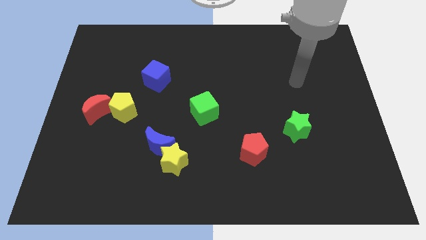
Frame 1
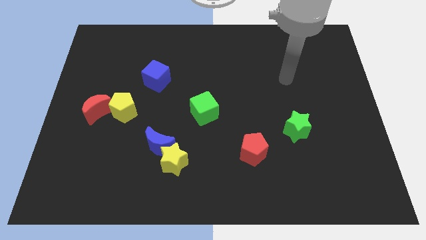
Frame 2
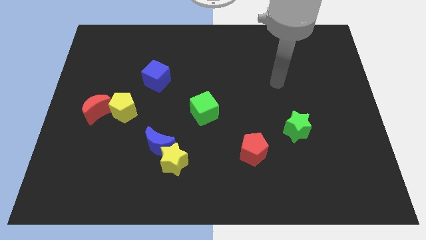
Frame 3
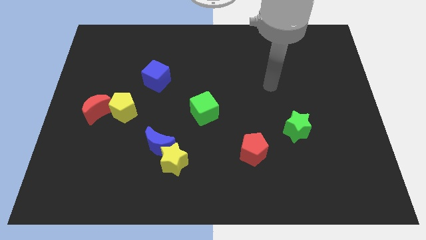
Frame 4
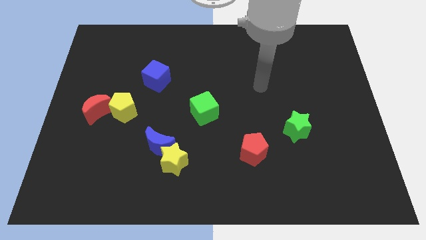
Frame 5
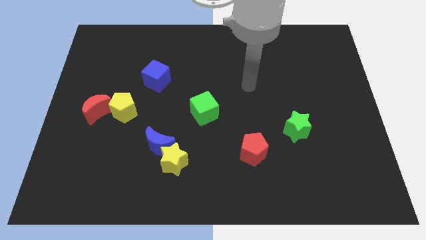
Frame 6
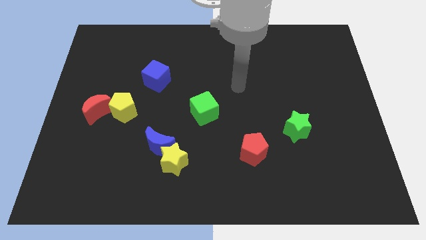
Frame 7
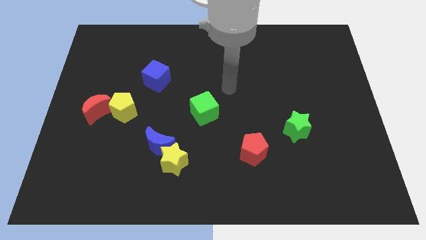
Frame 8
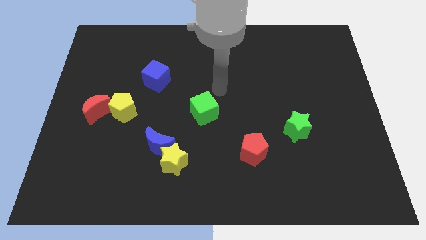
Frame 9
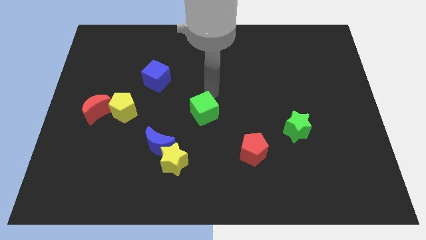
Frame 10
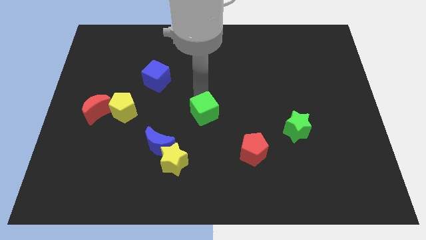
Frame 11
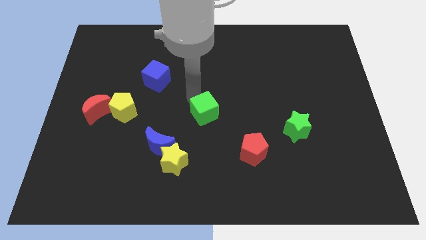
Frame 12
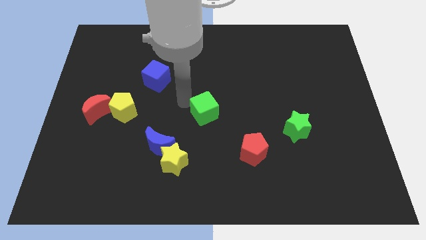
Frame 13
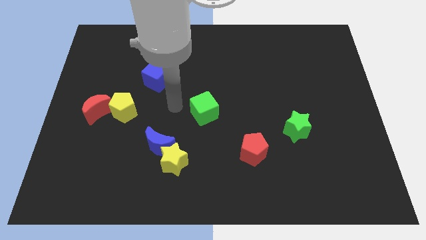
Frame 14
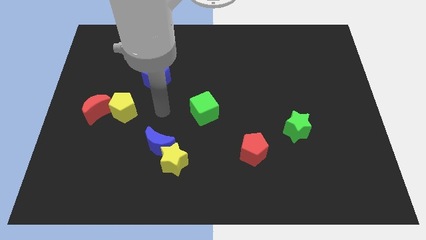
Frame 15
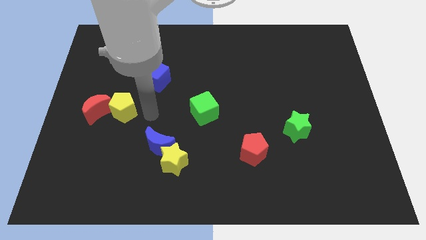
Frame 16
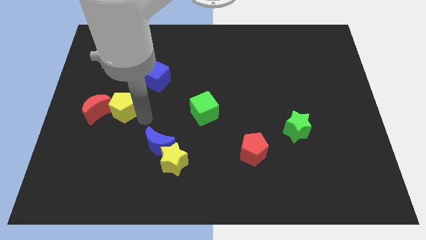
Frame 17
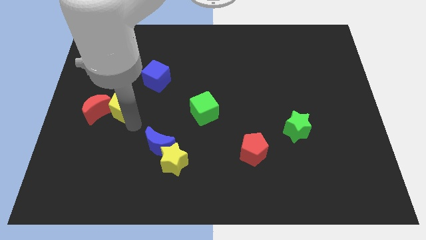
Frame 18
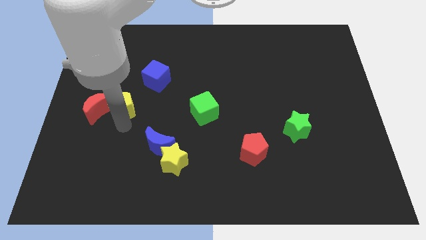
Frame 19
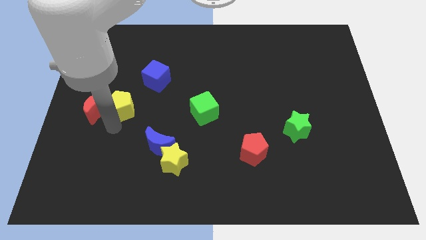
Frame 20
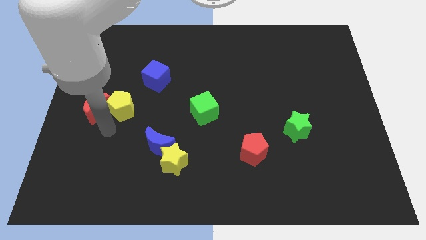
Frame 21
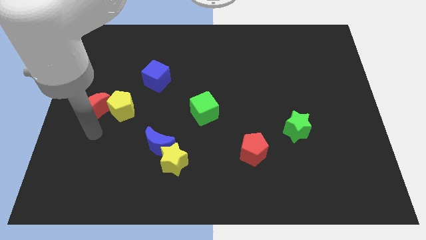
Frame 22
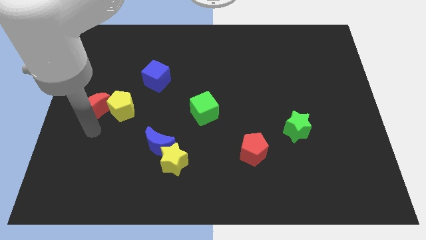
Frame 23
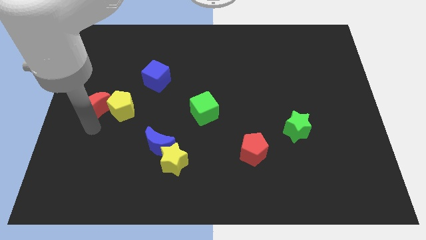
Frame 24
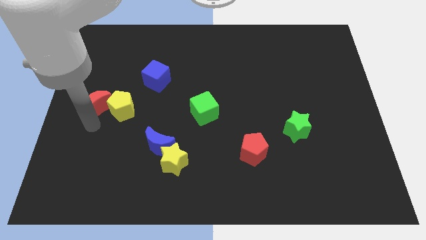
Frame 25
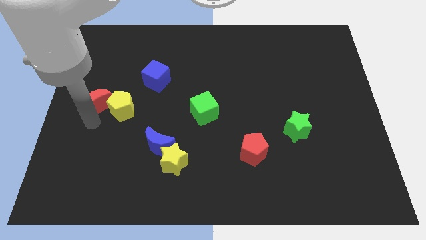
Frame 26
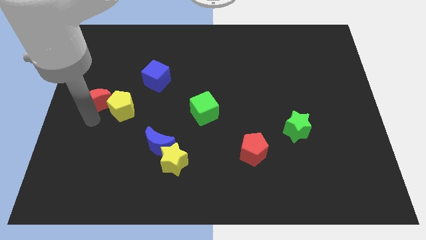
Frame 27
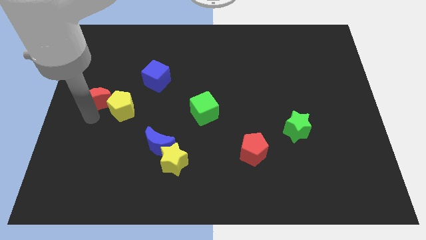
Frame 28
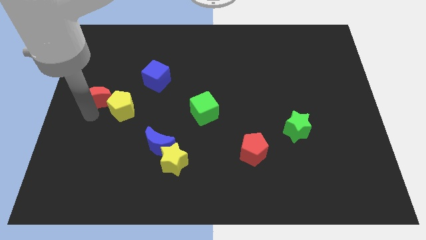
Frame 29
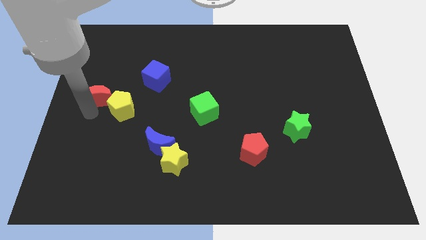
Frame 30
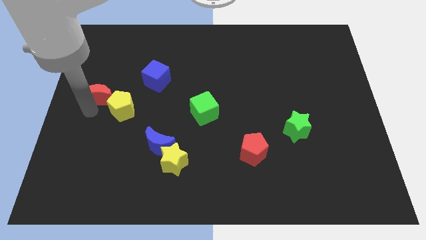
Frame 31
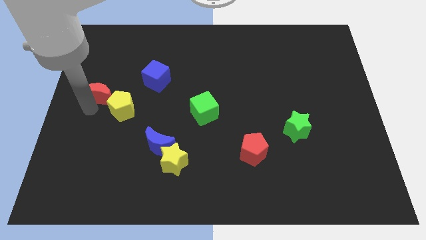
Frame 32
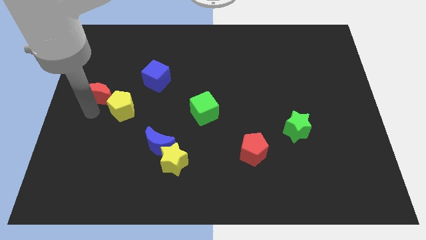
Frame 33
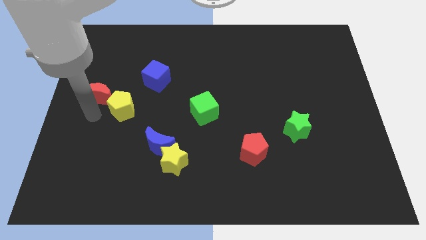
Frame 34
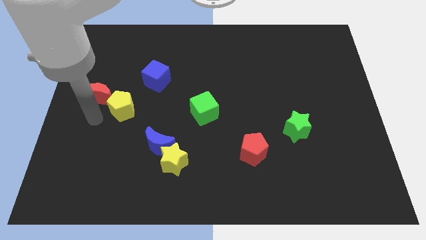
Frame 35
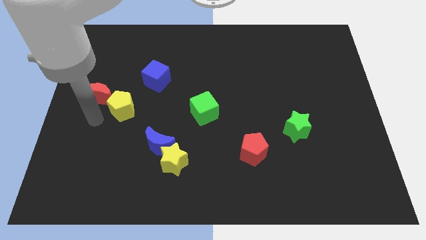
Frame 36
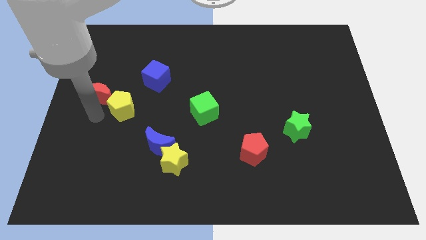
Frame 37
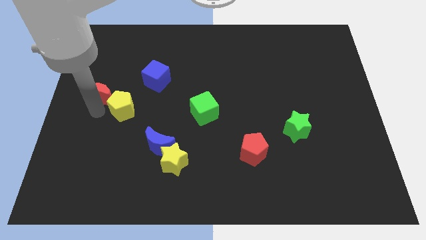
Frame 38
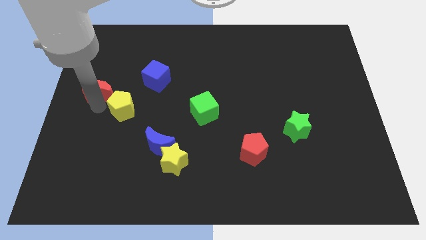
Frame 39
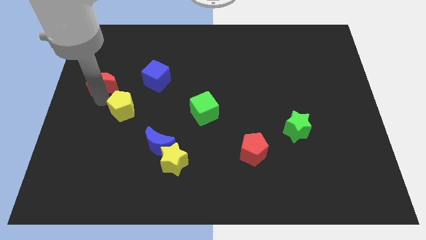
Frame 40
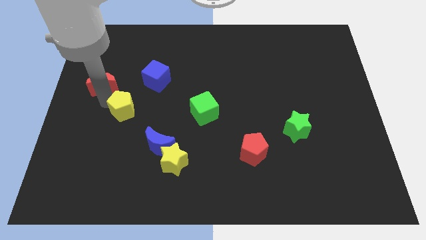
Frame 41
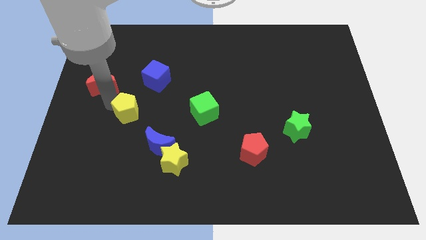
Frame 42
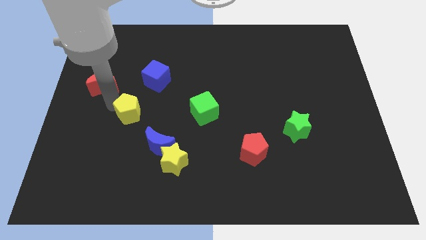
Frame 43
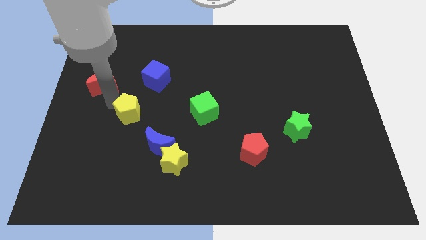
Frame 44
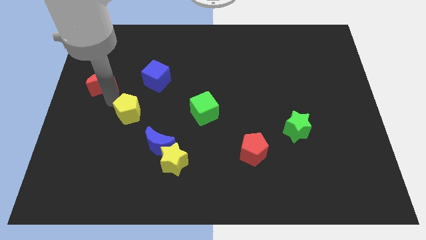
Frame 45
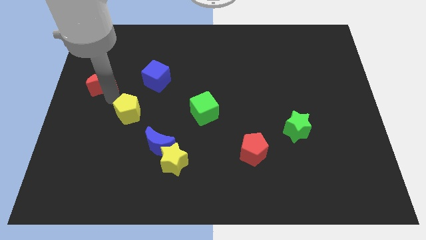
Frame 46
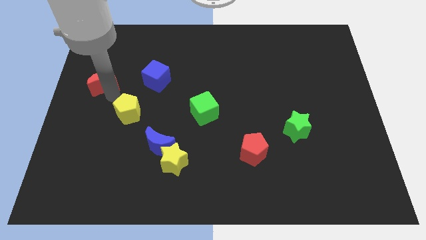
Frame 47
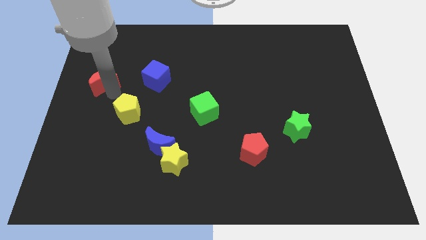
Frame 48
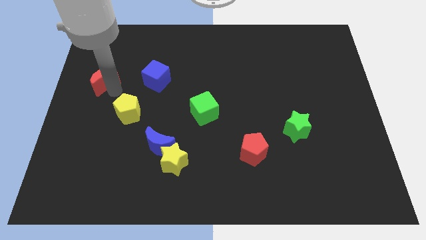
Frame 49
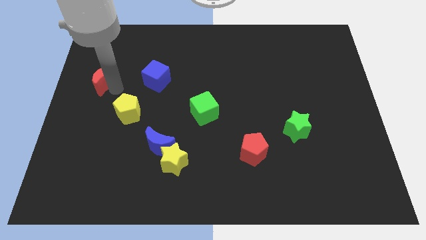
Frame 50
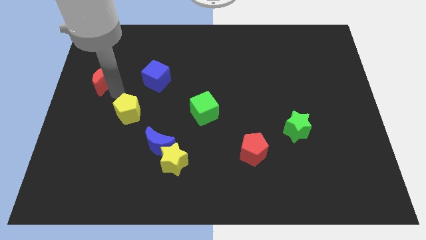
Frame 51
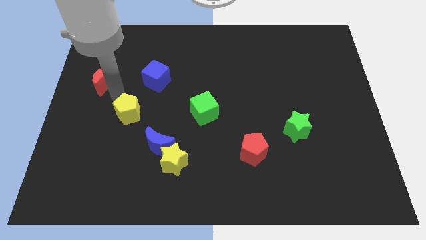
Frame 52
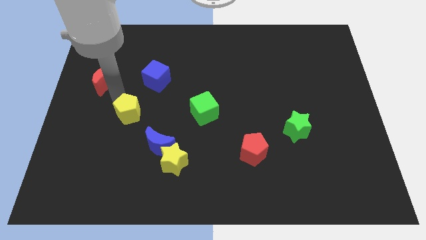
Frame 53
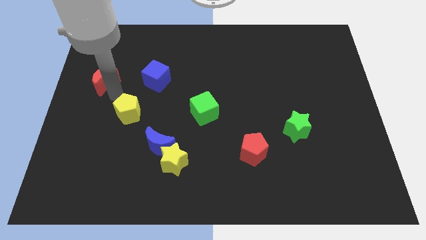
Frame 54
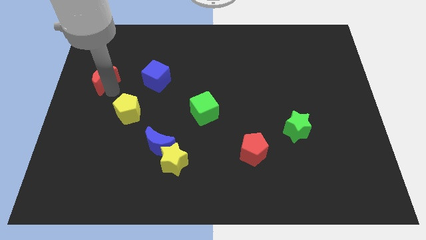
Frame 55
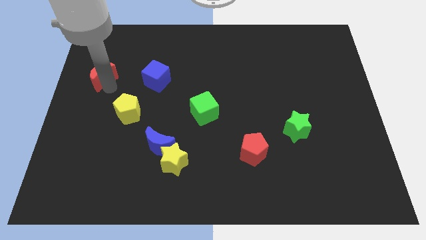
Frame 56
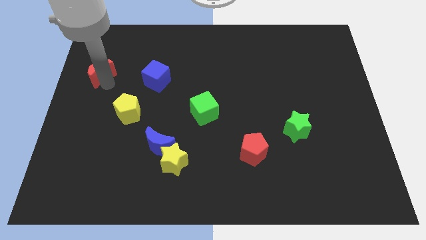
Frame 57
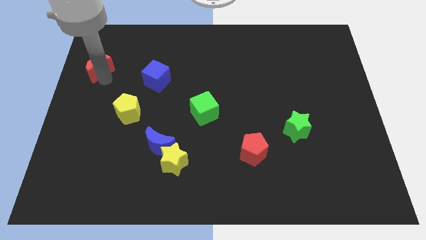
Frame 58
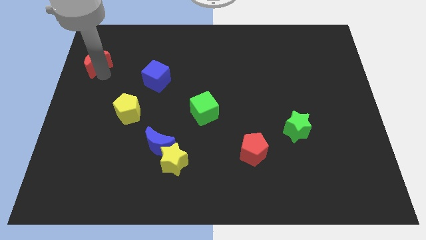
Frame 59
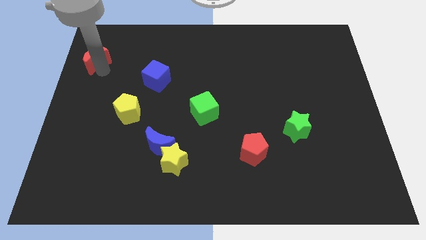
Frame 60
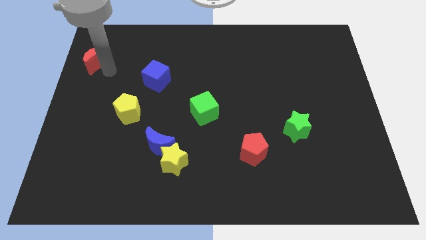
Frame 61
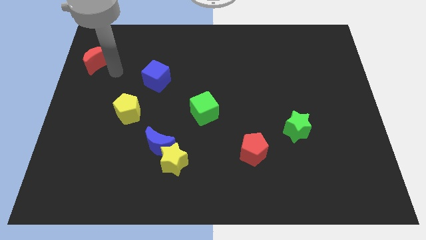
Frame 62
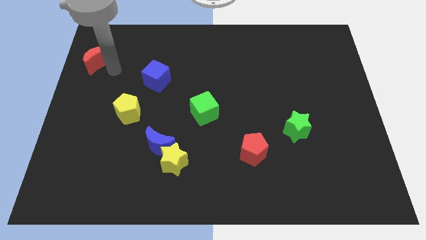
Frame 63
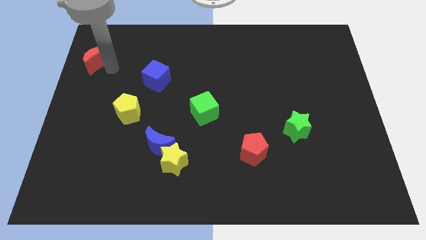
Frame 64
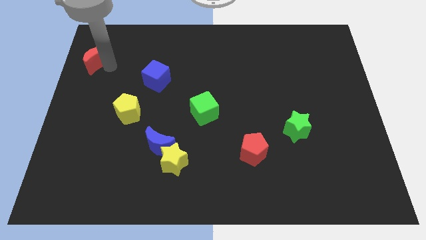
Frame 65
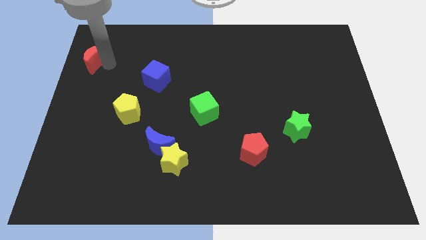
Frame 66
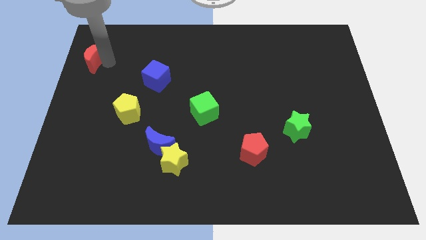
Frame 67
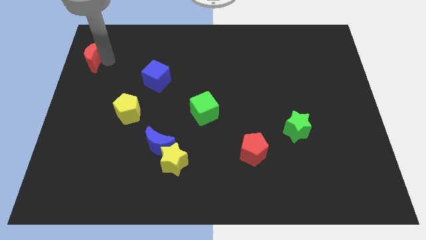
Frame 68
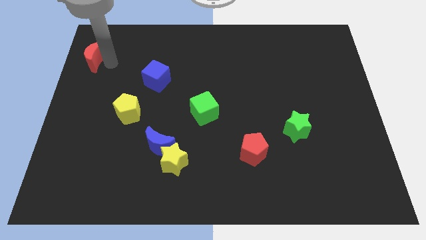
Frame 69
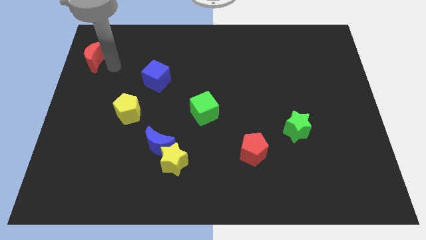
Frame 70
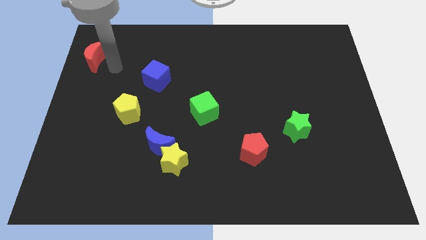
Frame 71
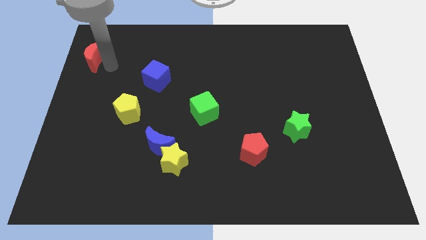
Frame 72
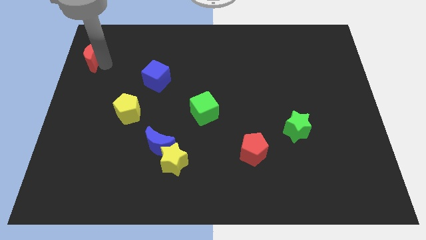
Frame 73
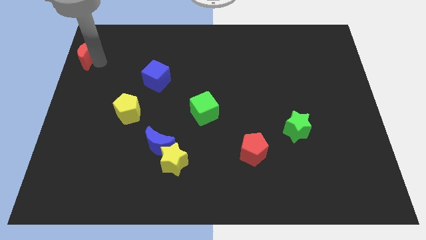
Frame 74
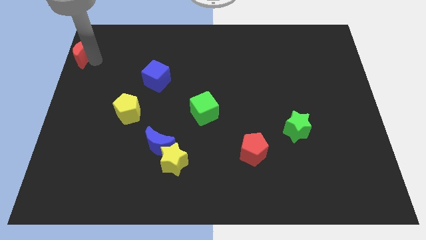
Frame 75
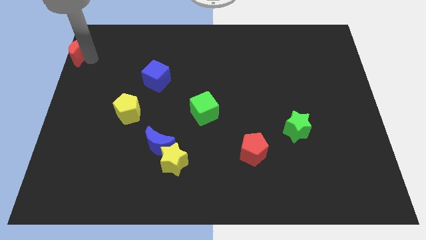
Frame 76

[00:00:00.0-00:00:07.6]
slide the red moon to the top left of the board
